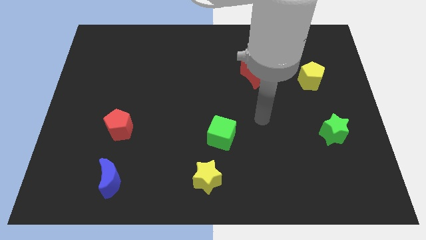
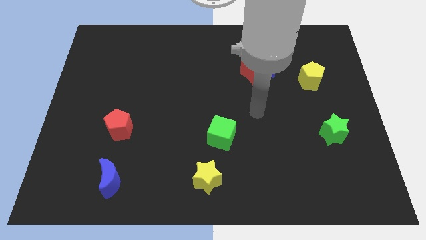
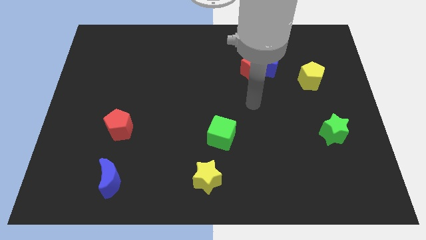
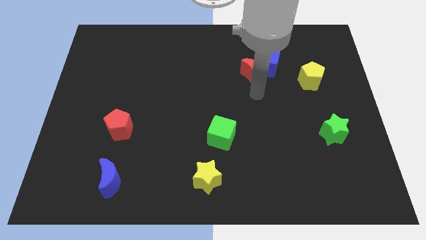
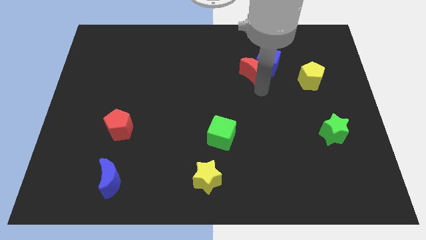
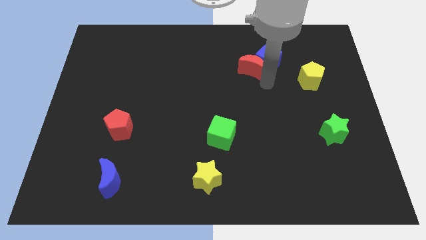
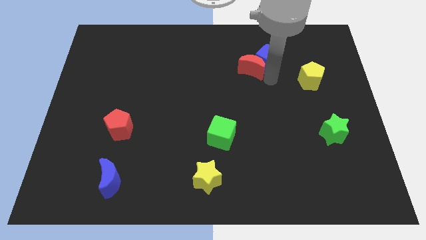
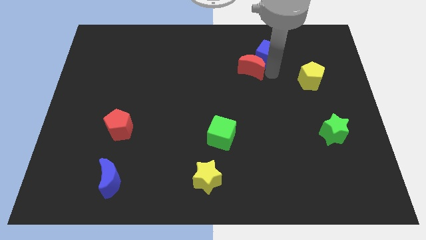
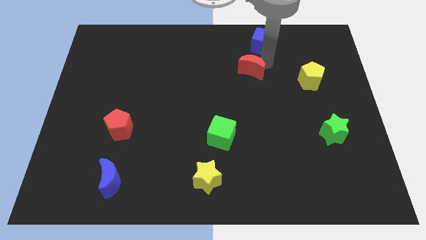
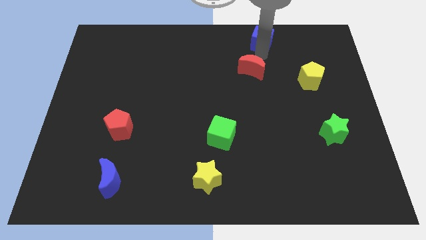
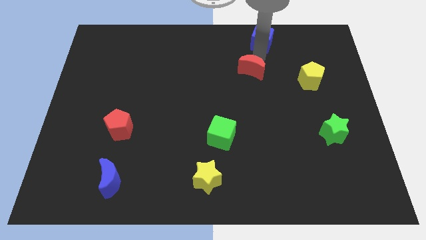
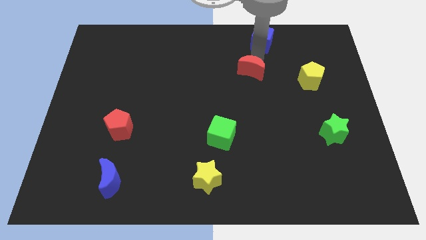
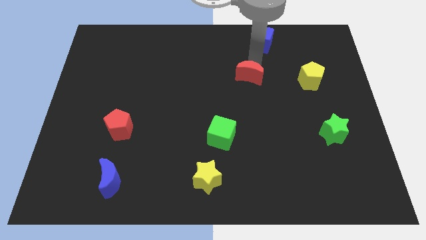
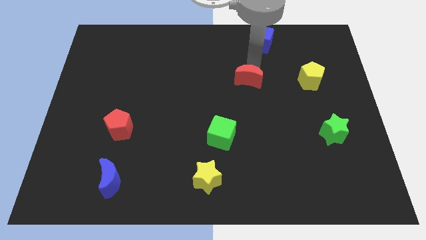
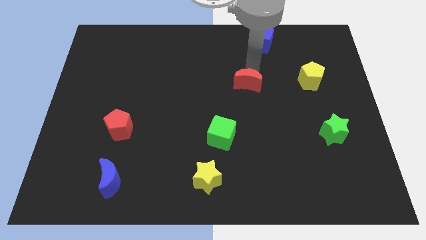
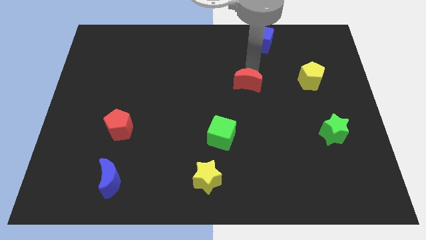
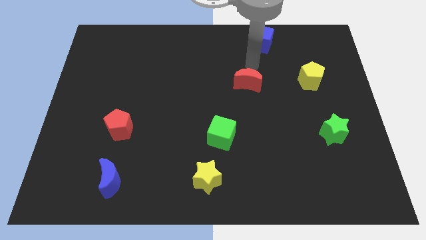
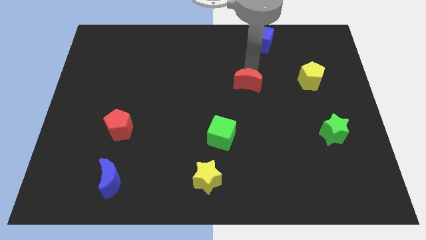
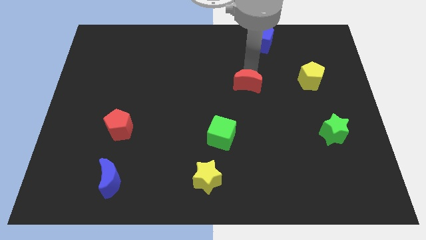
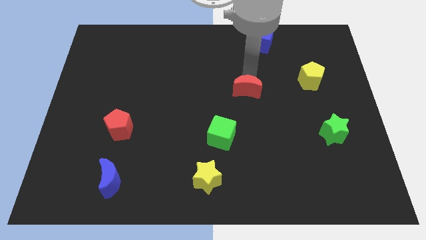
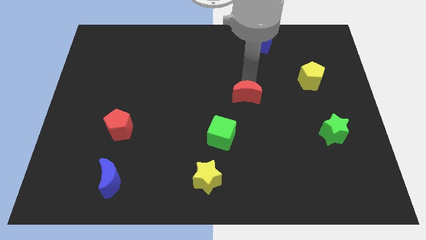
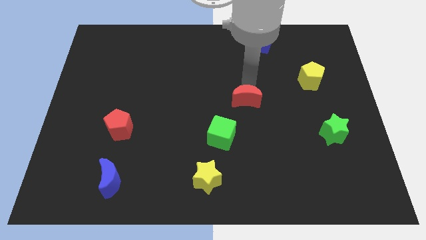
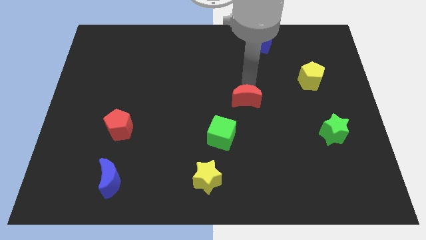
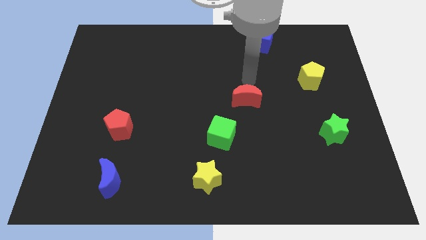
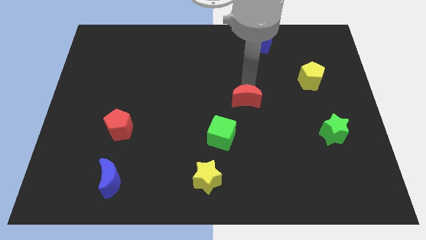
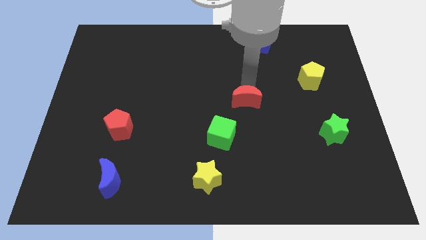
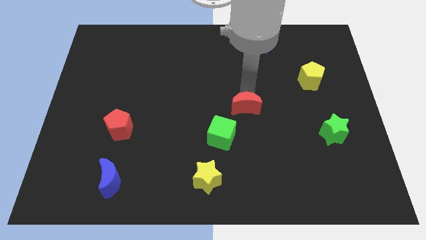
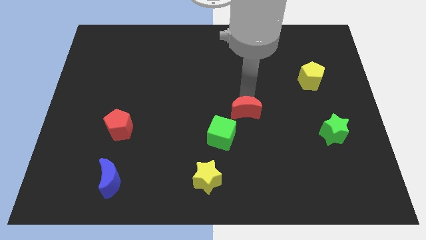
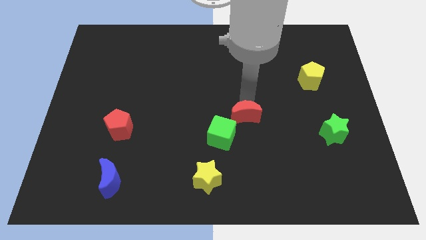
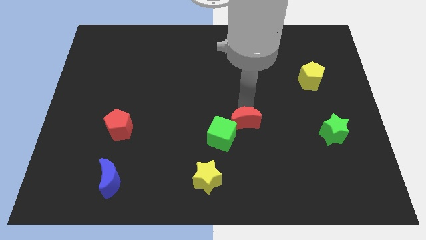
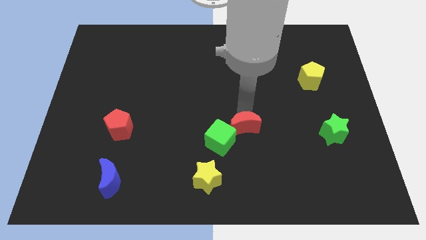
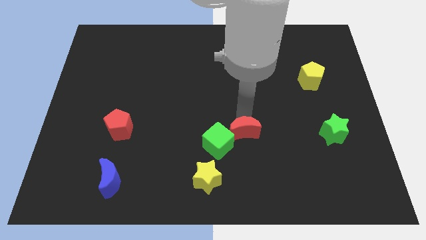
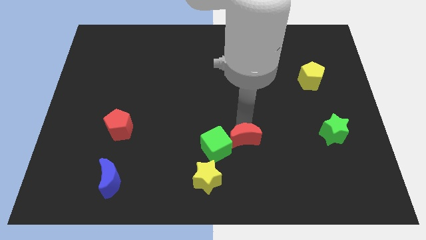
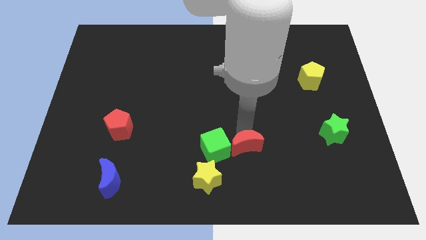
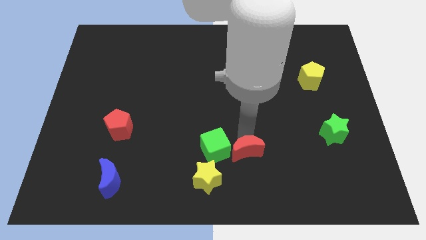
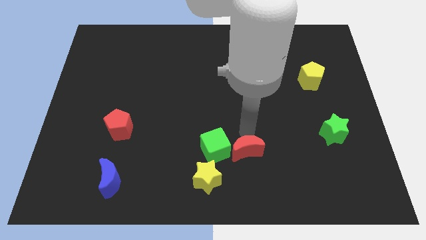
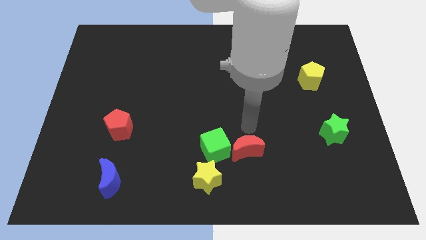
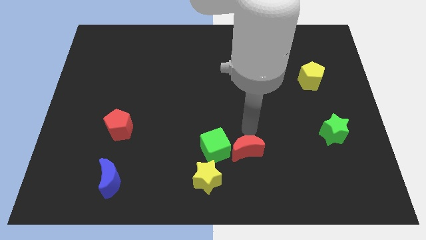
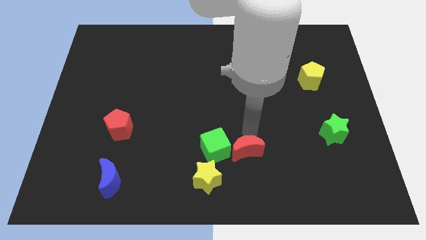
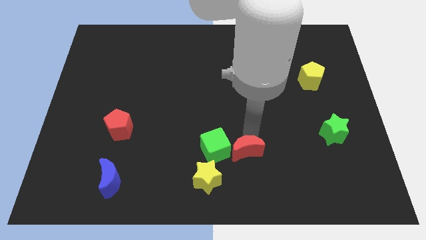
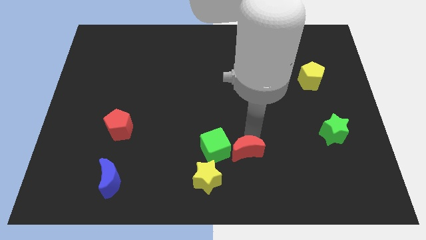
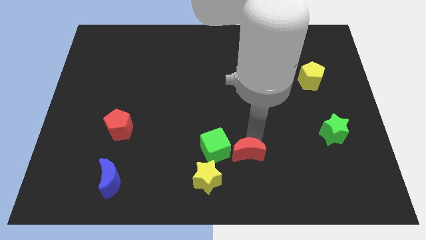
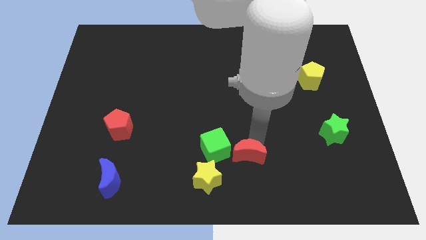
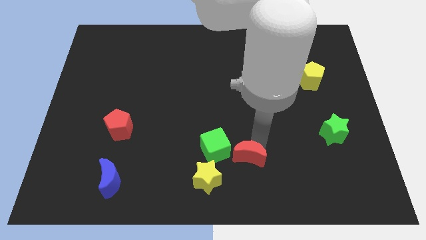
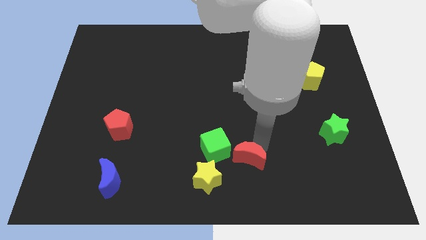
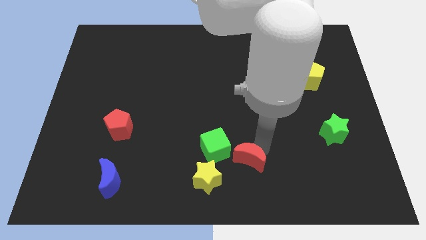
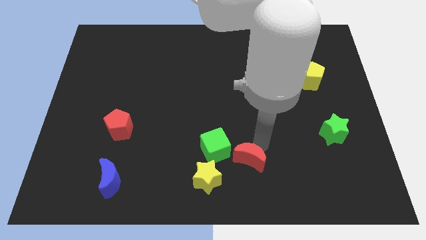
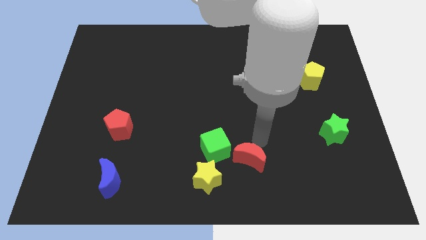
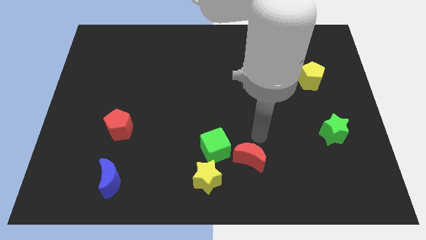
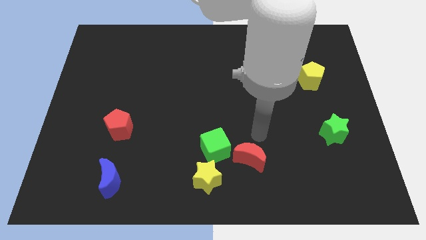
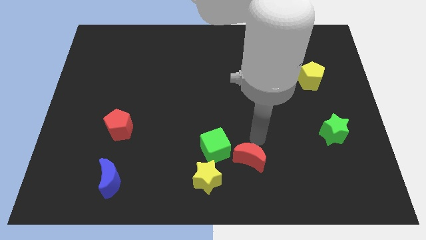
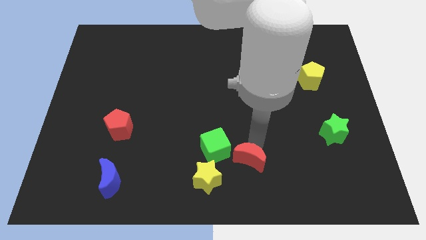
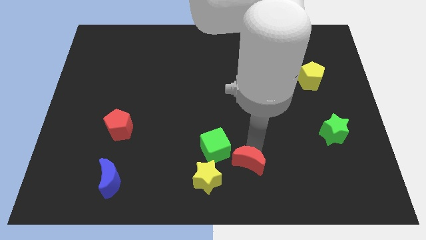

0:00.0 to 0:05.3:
put the red moon to the bottom

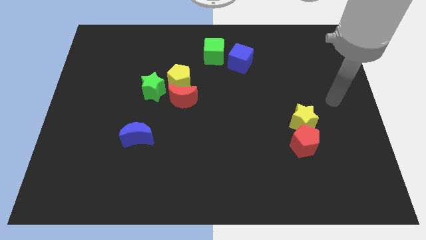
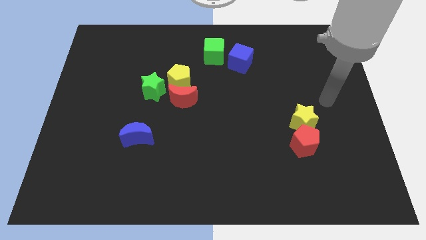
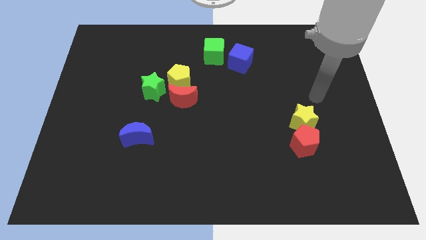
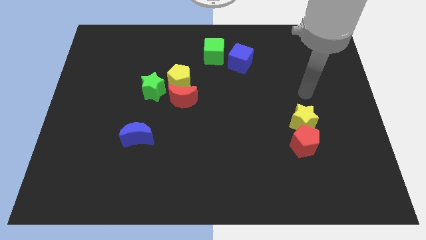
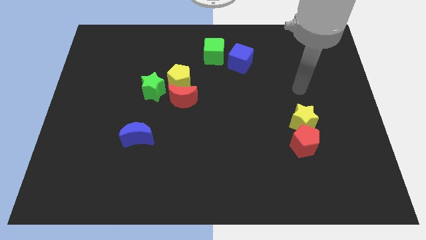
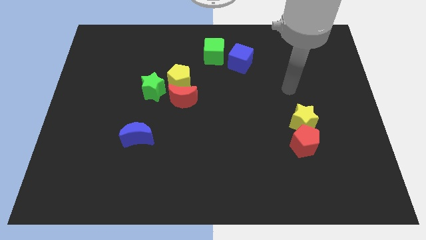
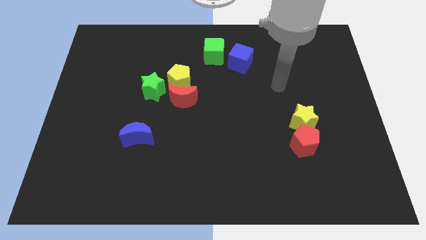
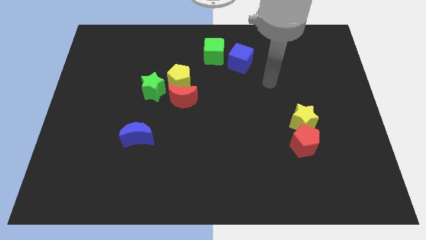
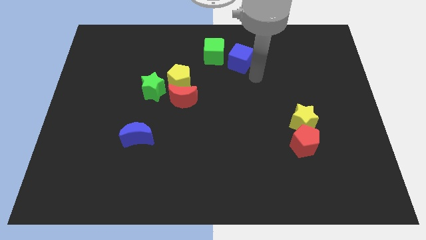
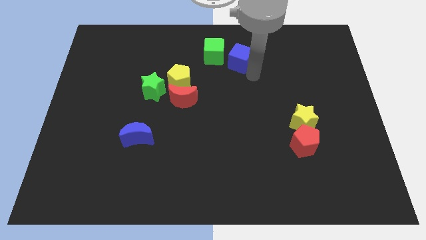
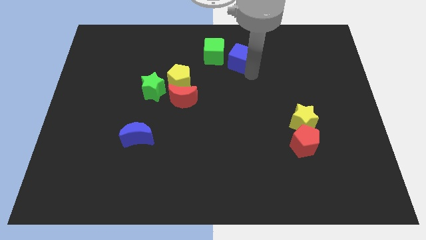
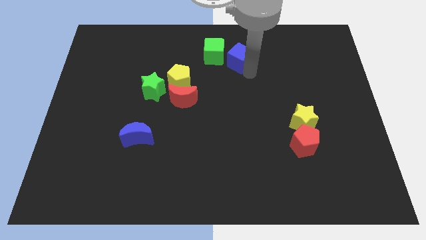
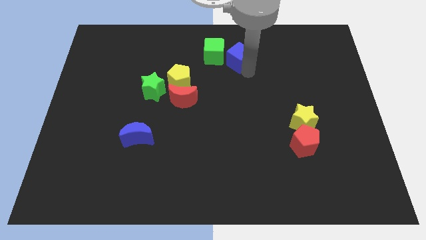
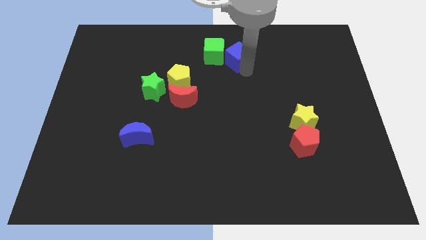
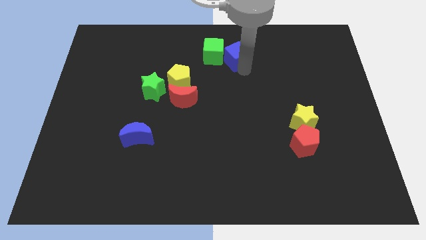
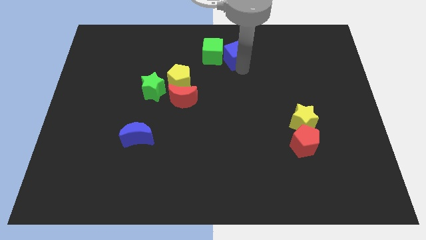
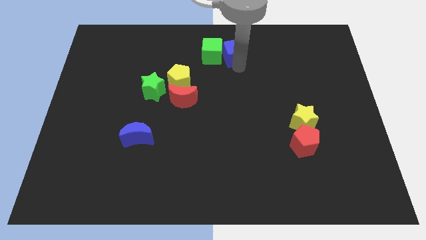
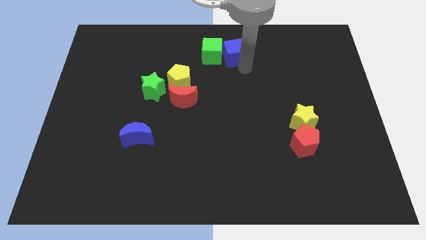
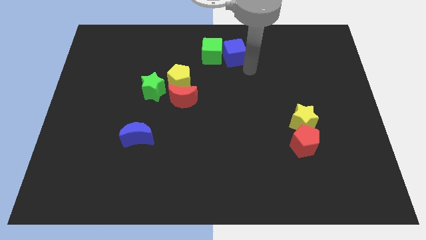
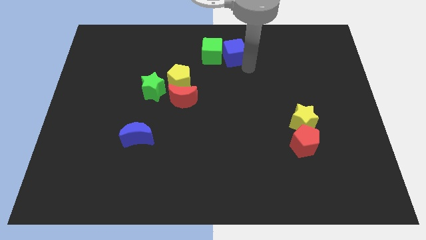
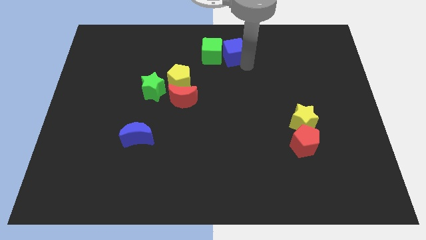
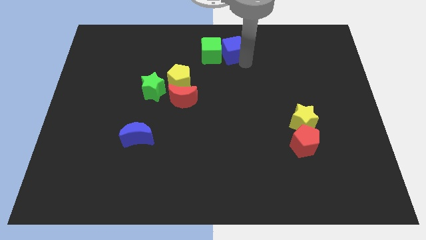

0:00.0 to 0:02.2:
slide the blue cube to the top
